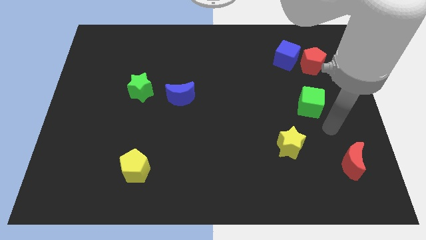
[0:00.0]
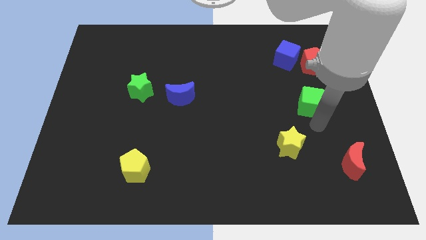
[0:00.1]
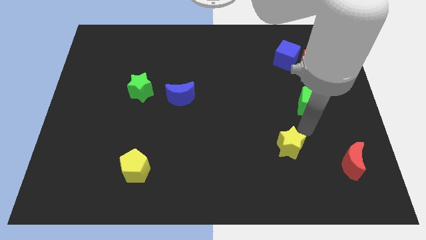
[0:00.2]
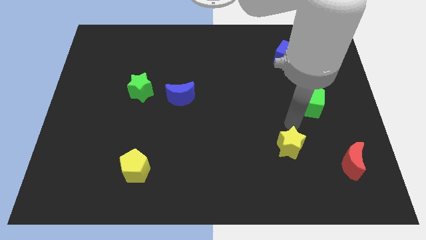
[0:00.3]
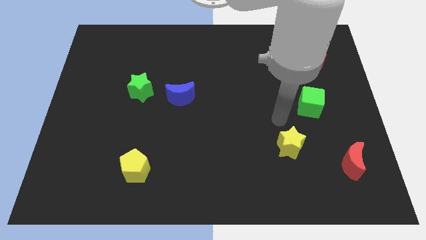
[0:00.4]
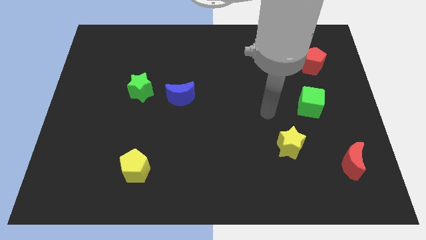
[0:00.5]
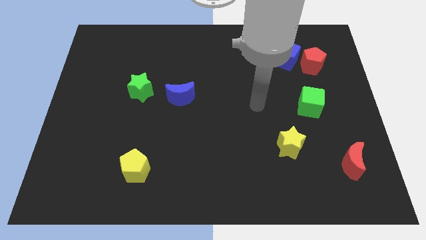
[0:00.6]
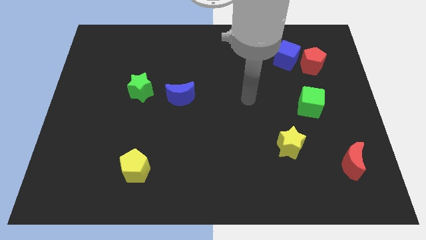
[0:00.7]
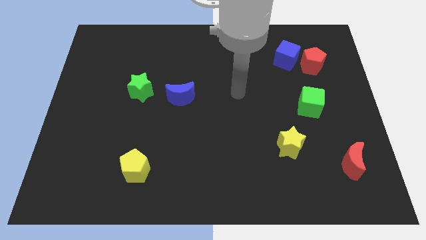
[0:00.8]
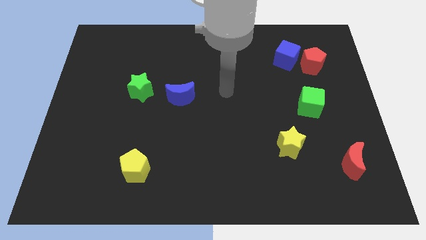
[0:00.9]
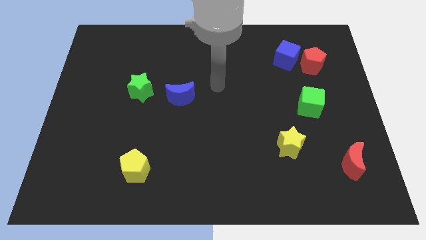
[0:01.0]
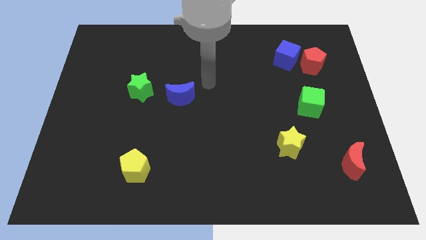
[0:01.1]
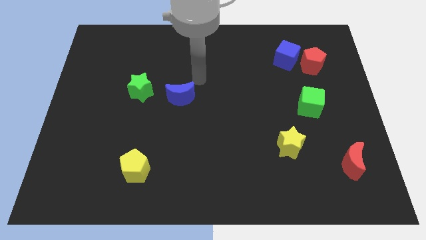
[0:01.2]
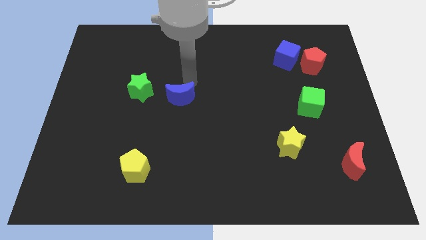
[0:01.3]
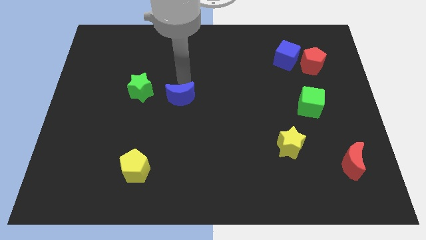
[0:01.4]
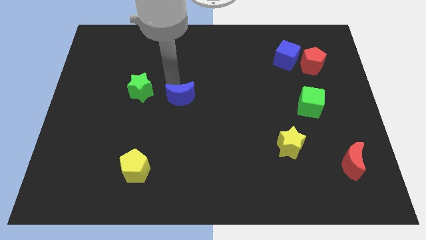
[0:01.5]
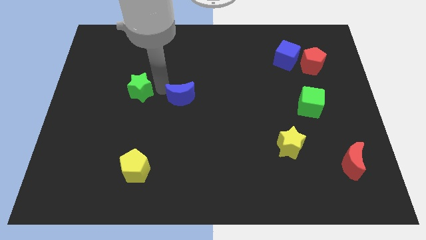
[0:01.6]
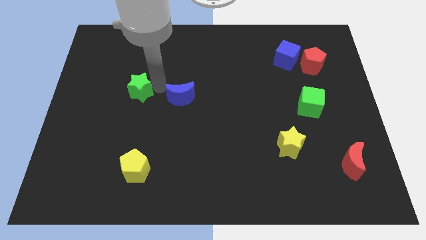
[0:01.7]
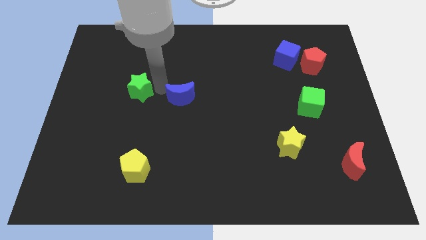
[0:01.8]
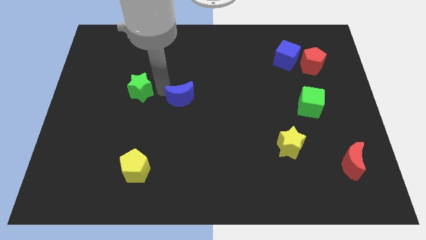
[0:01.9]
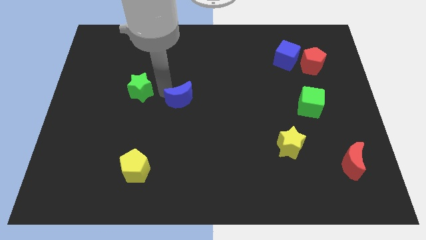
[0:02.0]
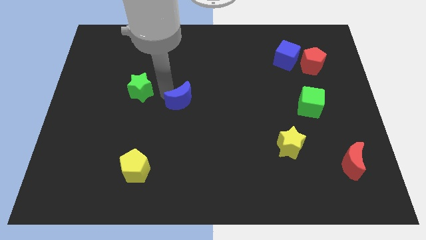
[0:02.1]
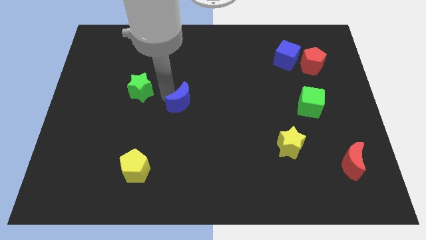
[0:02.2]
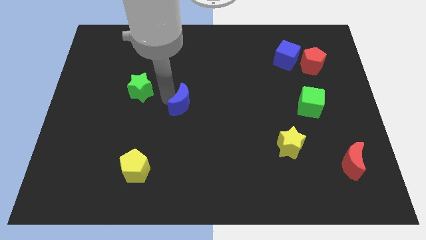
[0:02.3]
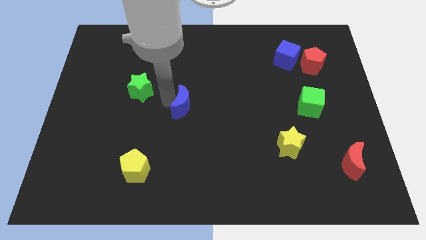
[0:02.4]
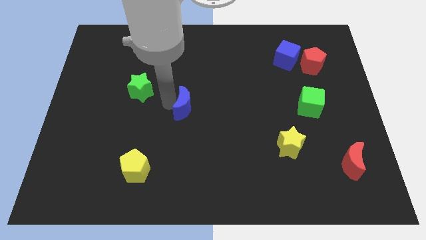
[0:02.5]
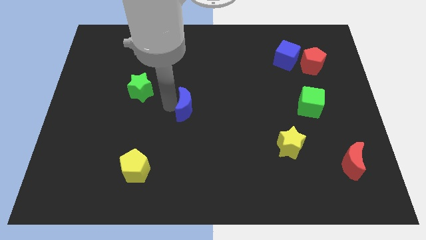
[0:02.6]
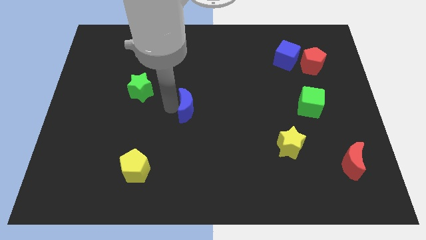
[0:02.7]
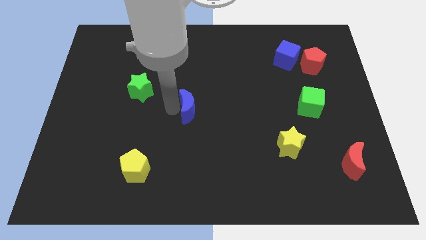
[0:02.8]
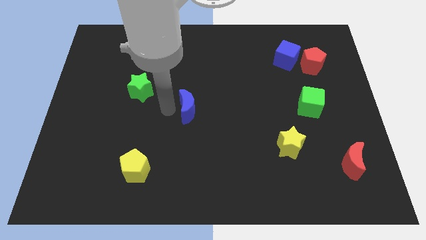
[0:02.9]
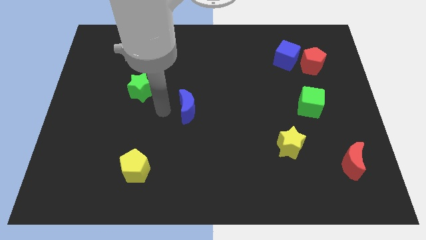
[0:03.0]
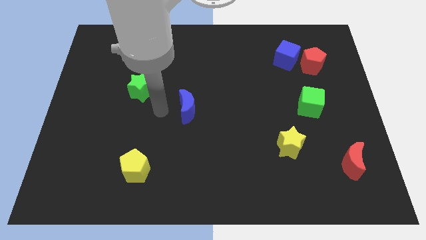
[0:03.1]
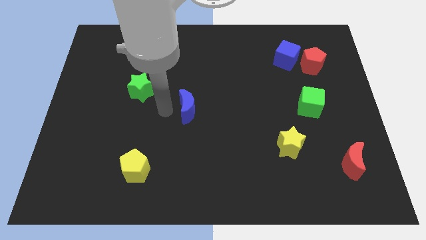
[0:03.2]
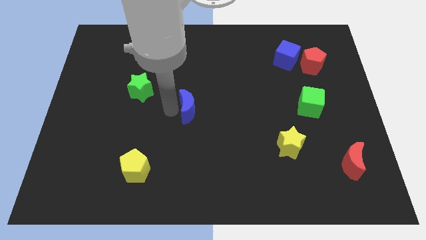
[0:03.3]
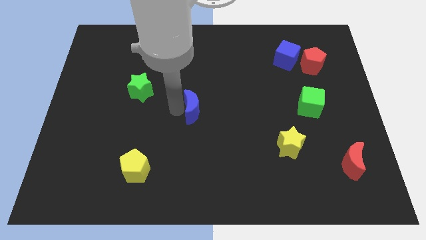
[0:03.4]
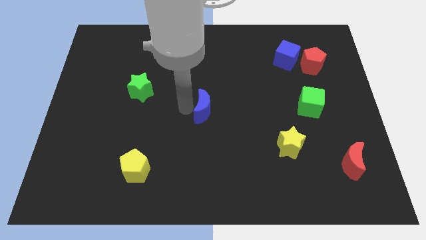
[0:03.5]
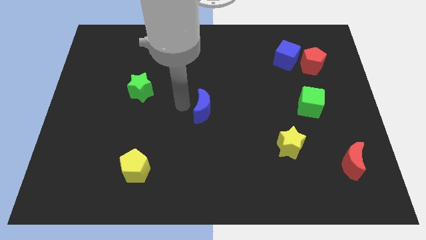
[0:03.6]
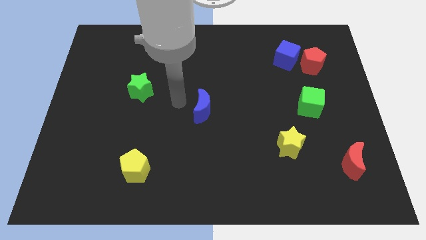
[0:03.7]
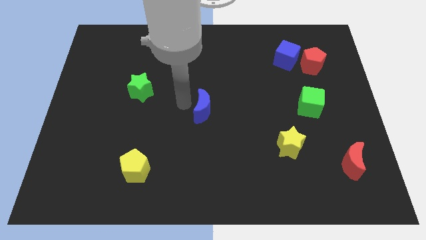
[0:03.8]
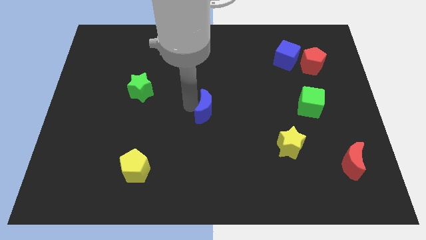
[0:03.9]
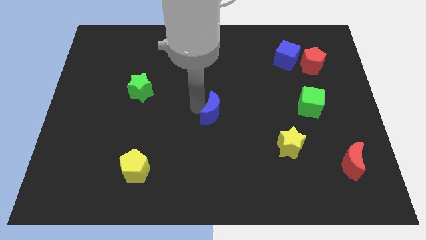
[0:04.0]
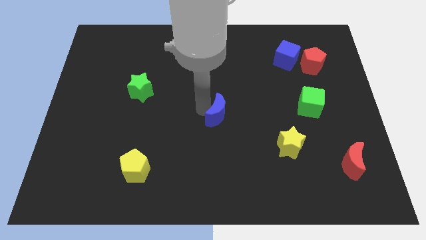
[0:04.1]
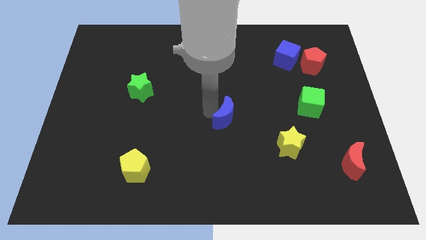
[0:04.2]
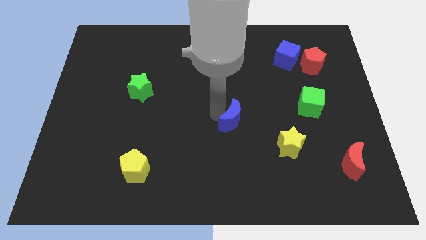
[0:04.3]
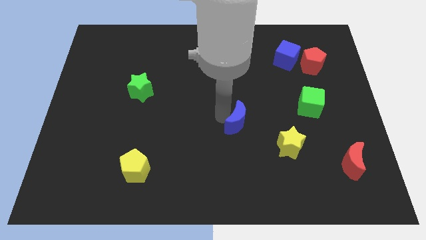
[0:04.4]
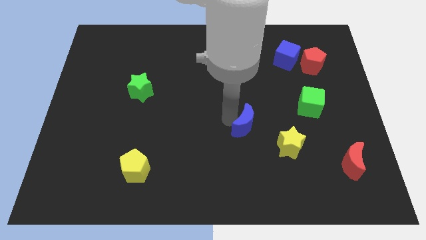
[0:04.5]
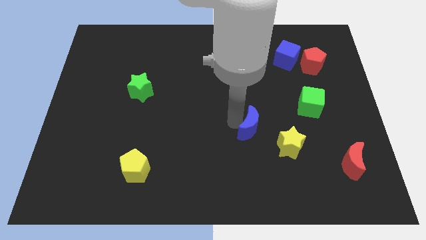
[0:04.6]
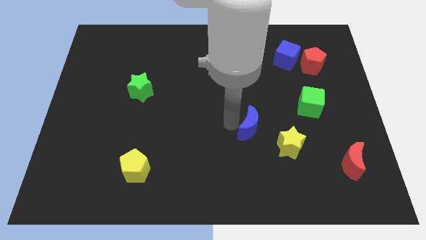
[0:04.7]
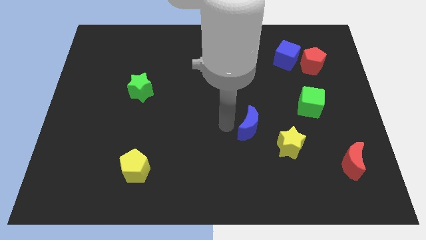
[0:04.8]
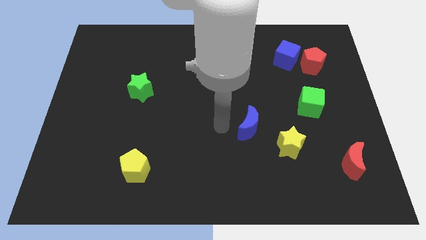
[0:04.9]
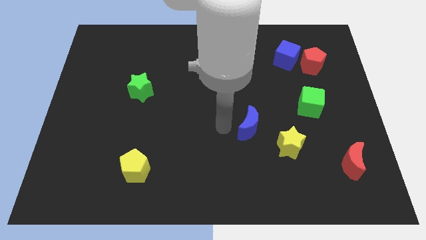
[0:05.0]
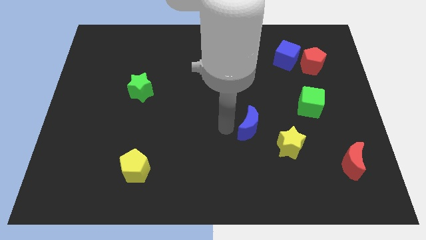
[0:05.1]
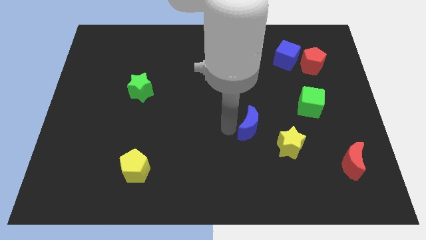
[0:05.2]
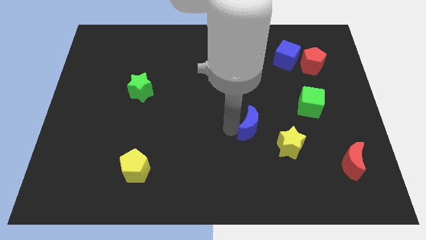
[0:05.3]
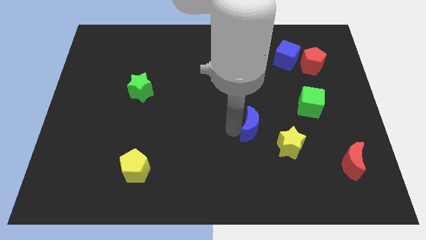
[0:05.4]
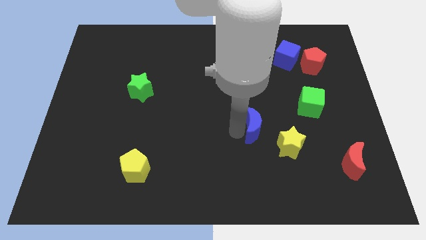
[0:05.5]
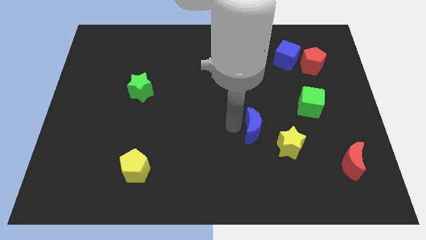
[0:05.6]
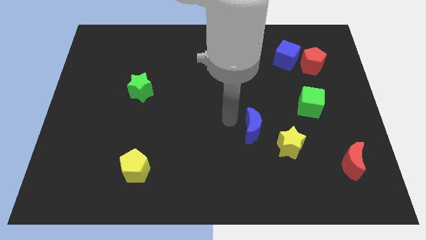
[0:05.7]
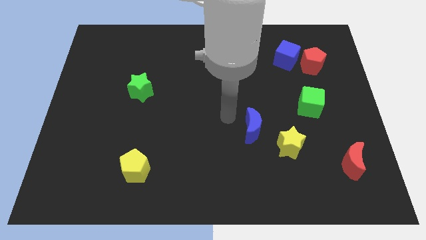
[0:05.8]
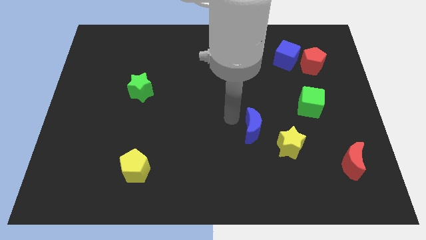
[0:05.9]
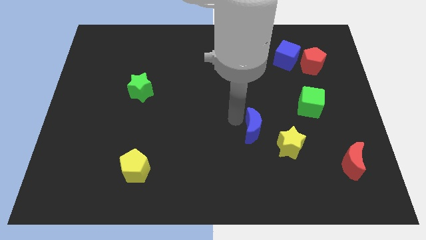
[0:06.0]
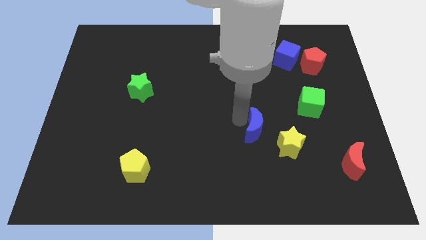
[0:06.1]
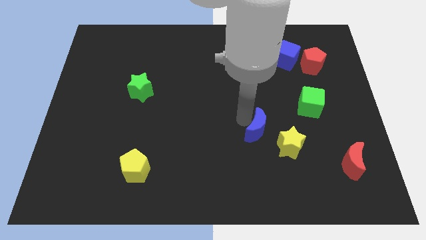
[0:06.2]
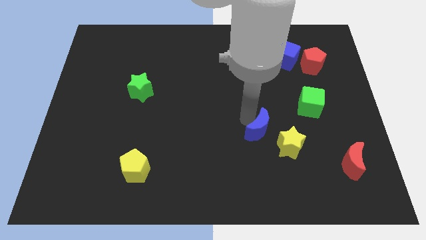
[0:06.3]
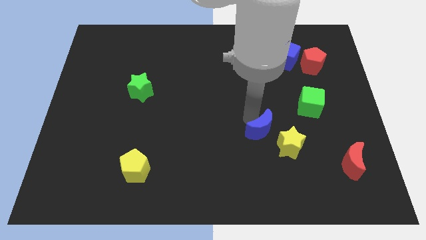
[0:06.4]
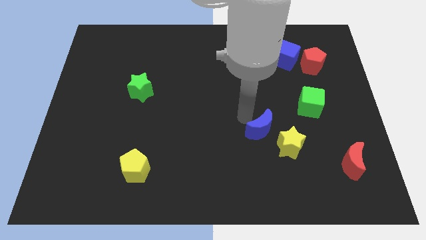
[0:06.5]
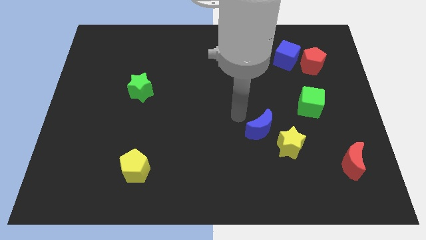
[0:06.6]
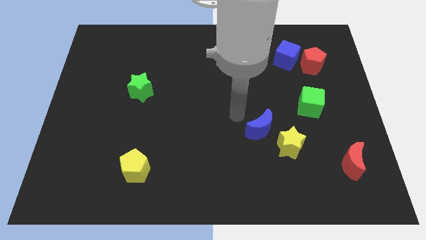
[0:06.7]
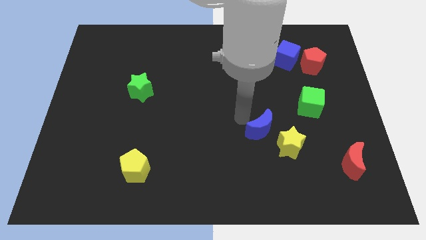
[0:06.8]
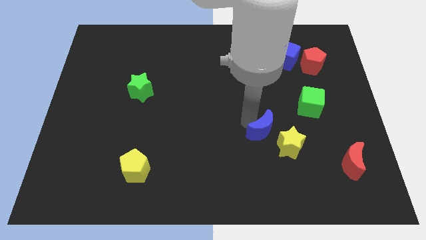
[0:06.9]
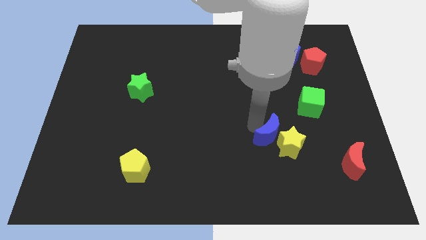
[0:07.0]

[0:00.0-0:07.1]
push the blue moon next to the yellow star
